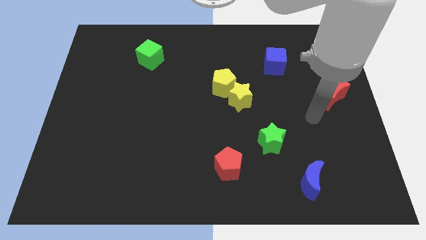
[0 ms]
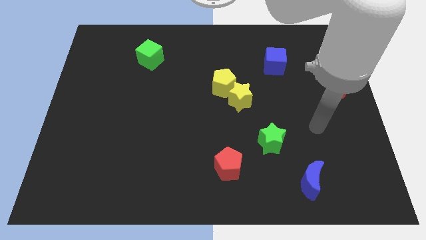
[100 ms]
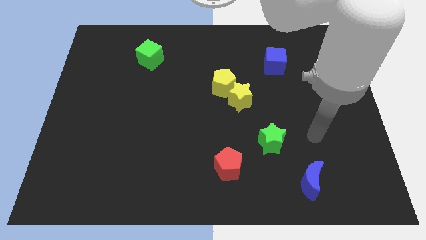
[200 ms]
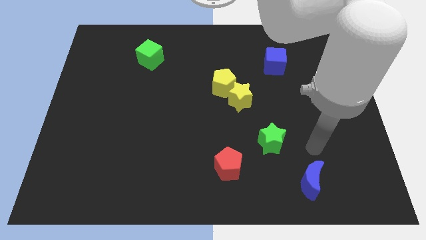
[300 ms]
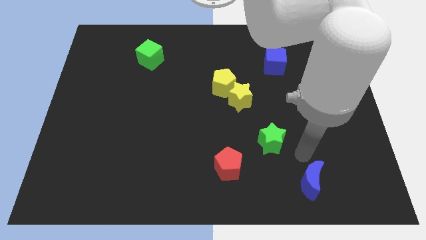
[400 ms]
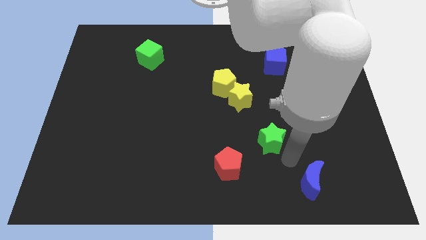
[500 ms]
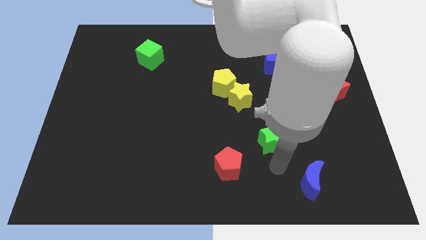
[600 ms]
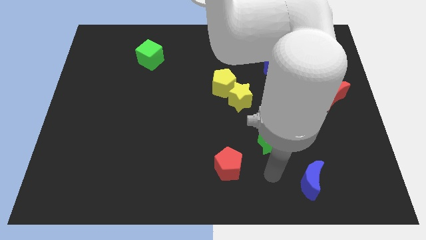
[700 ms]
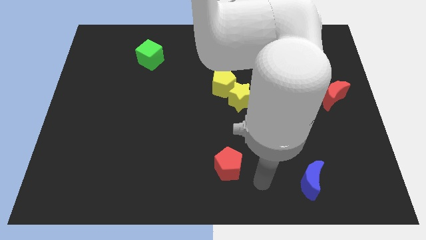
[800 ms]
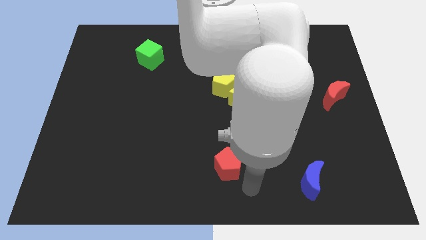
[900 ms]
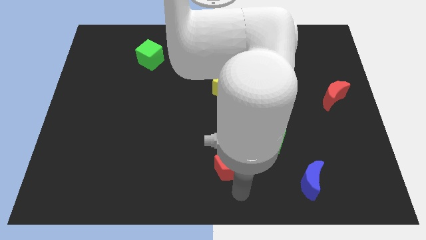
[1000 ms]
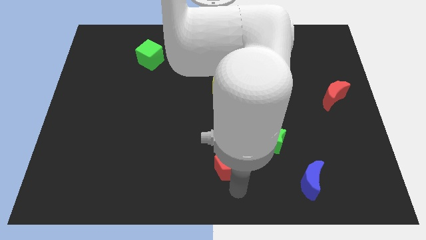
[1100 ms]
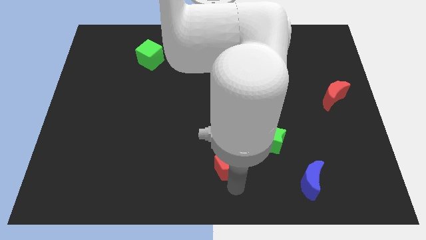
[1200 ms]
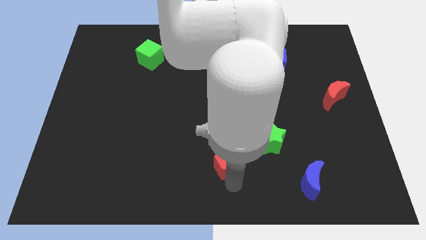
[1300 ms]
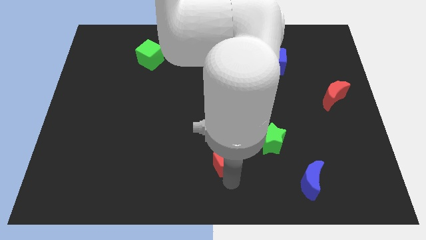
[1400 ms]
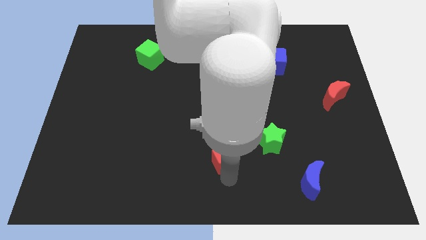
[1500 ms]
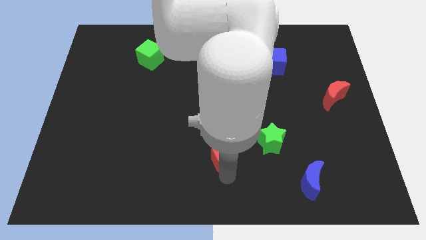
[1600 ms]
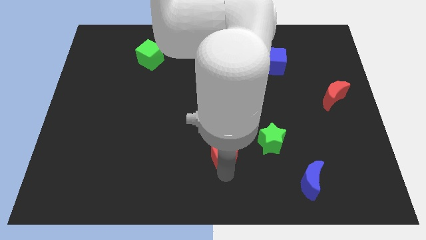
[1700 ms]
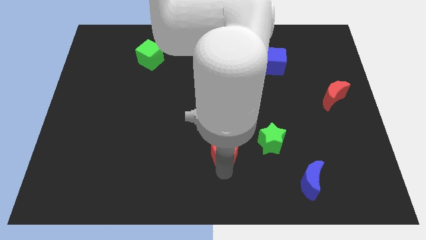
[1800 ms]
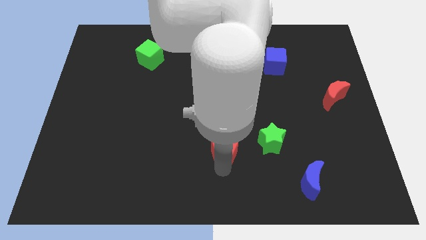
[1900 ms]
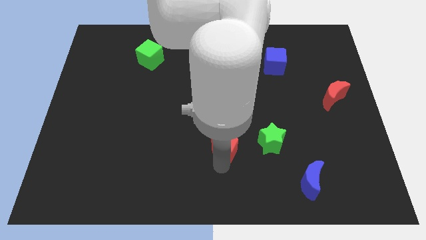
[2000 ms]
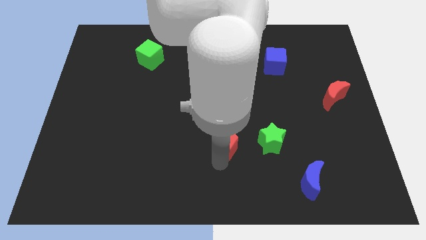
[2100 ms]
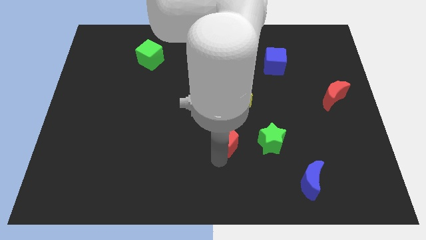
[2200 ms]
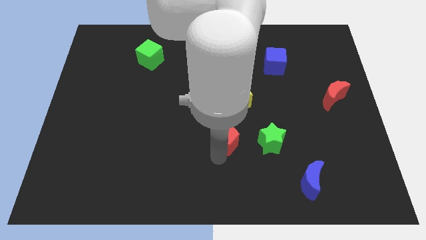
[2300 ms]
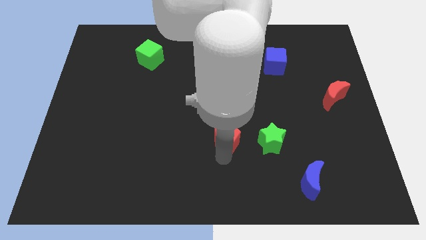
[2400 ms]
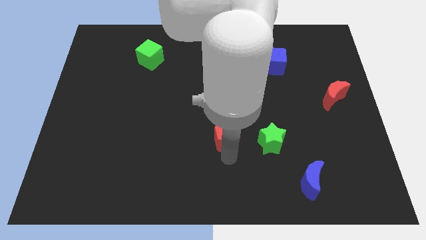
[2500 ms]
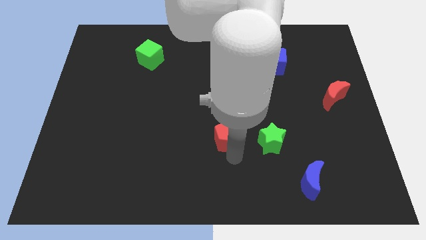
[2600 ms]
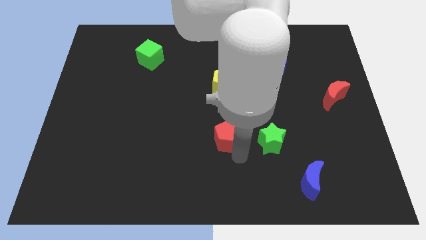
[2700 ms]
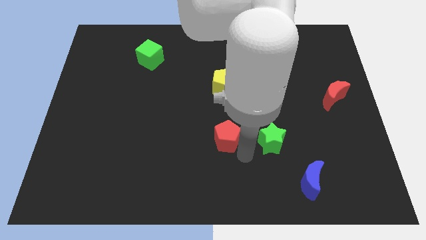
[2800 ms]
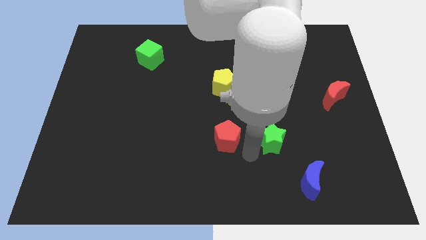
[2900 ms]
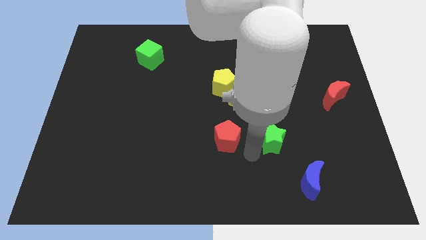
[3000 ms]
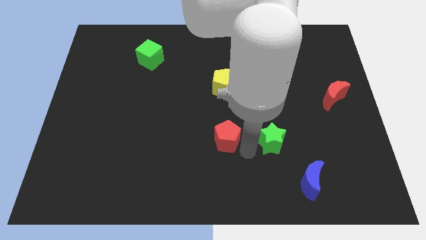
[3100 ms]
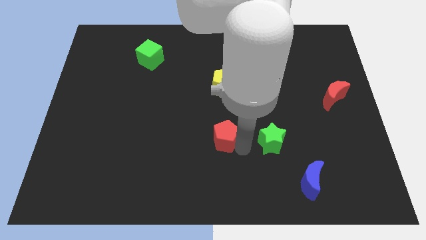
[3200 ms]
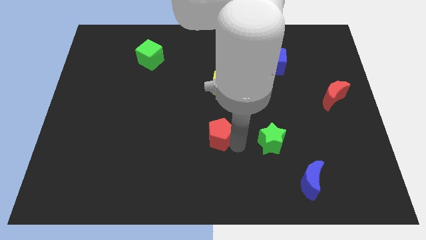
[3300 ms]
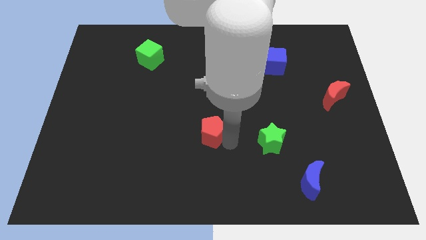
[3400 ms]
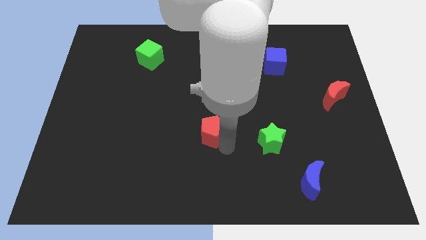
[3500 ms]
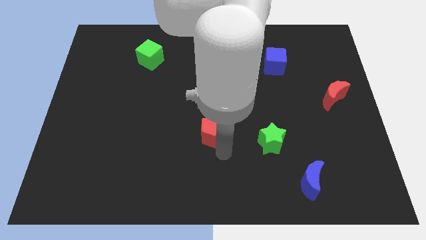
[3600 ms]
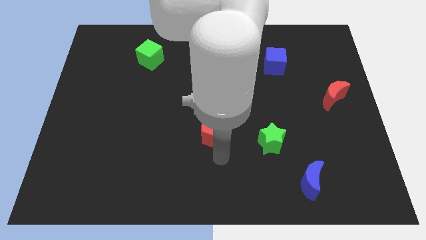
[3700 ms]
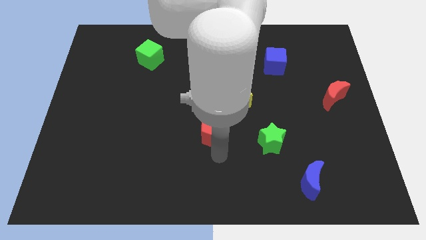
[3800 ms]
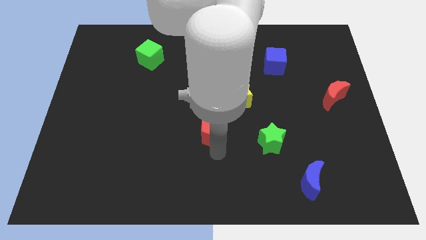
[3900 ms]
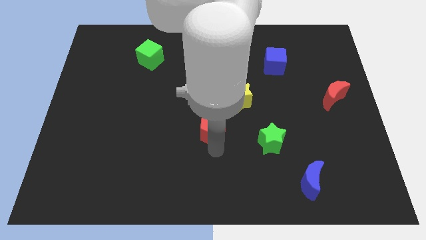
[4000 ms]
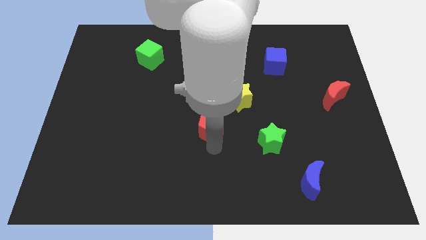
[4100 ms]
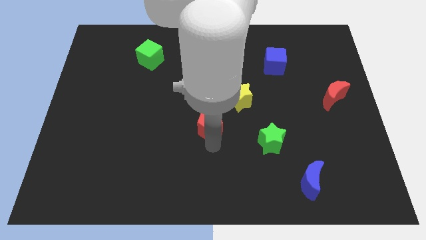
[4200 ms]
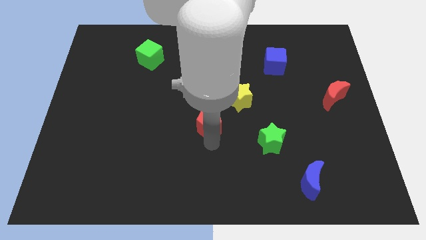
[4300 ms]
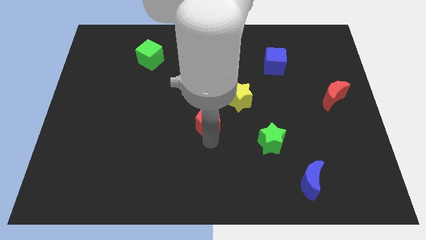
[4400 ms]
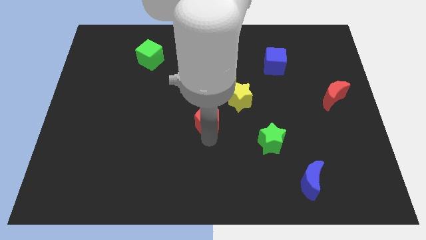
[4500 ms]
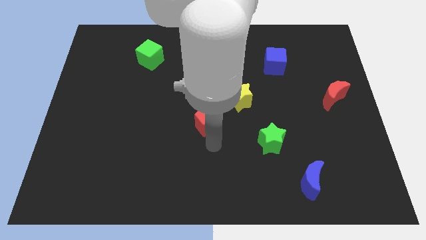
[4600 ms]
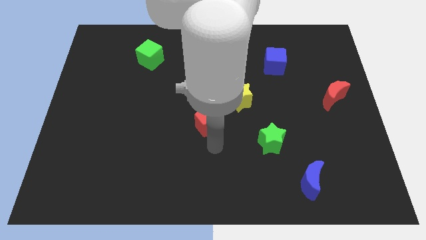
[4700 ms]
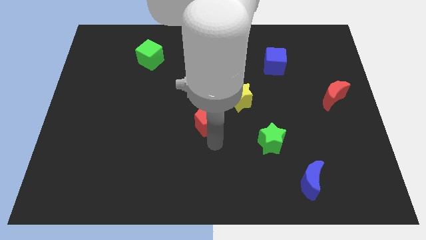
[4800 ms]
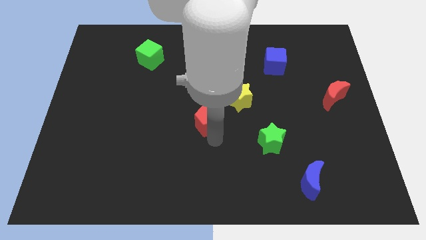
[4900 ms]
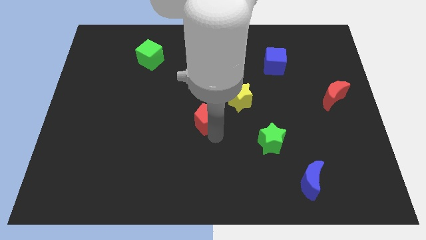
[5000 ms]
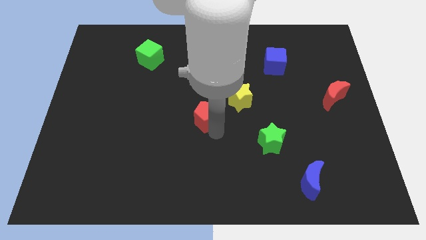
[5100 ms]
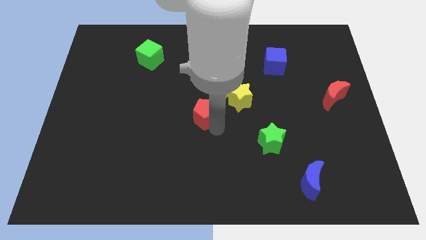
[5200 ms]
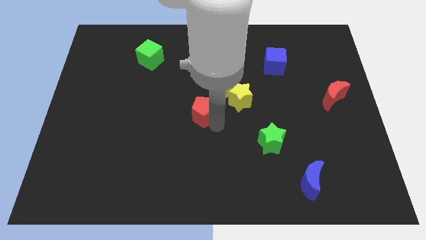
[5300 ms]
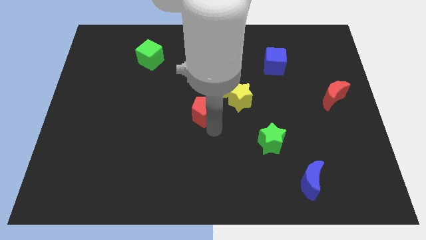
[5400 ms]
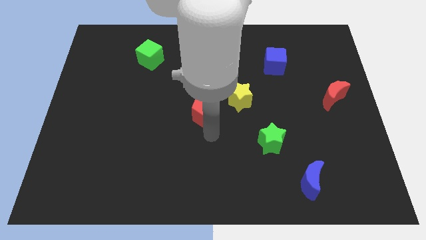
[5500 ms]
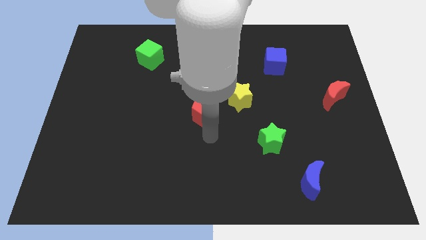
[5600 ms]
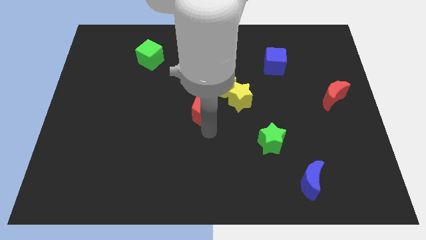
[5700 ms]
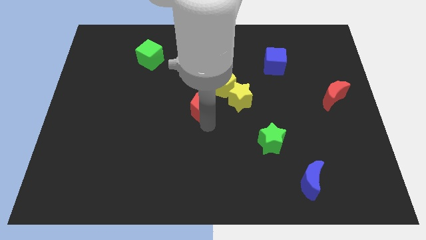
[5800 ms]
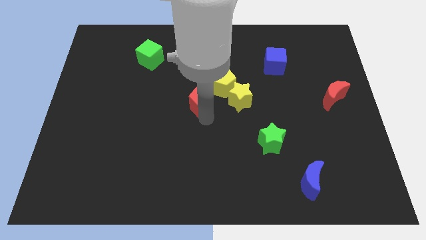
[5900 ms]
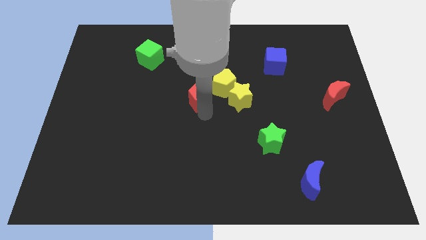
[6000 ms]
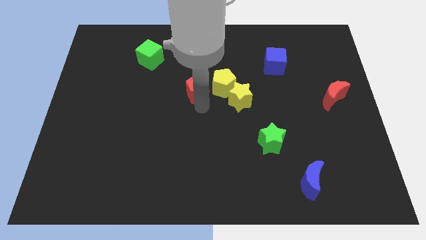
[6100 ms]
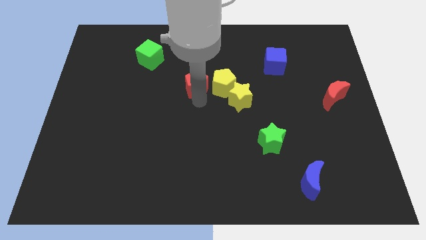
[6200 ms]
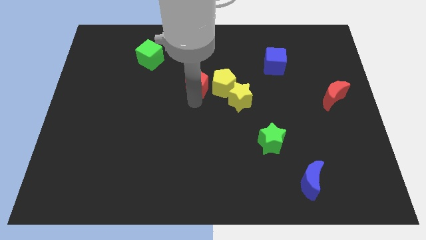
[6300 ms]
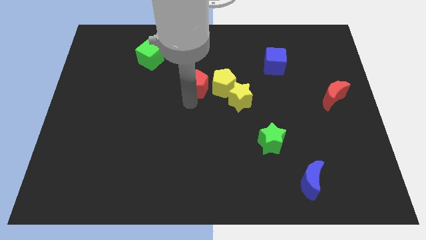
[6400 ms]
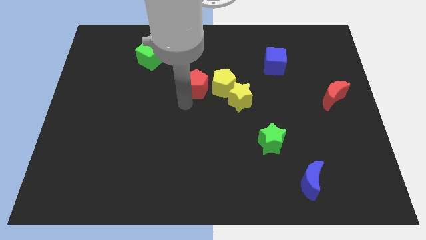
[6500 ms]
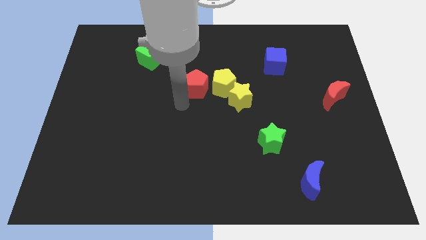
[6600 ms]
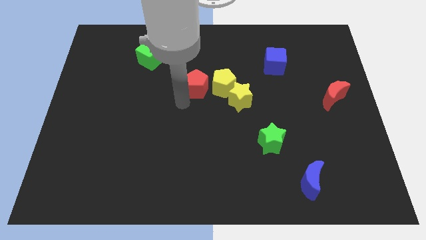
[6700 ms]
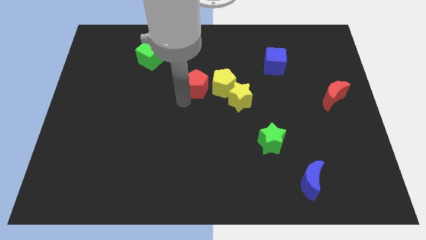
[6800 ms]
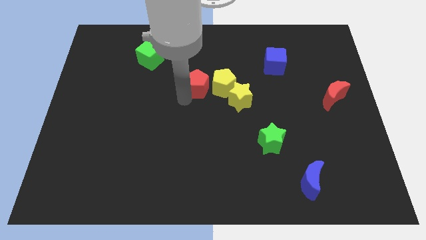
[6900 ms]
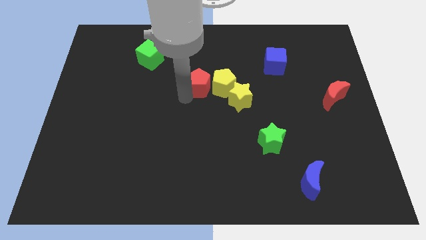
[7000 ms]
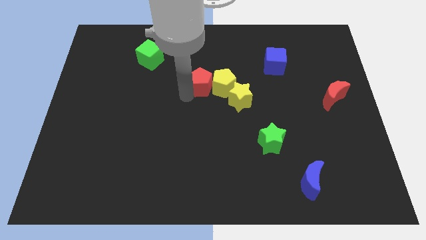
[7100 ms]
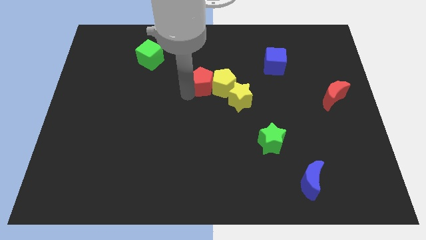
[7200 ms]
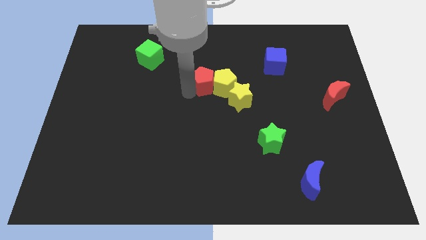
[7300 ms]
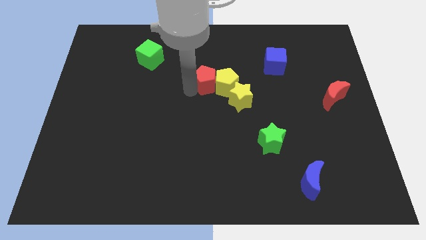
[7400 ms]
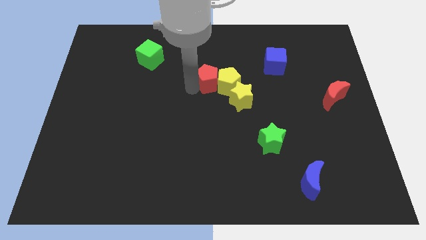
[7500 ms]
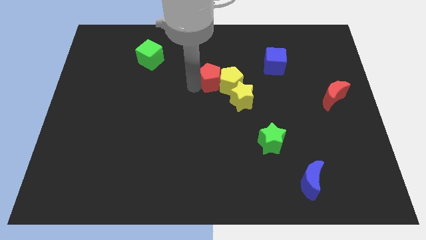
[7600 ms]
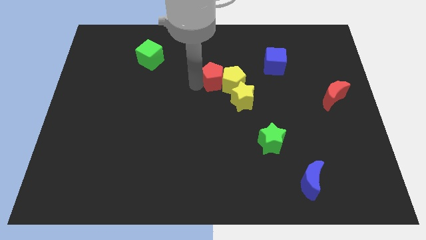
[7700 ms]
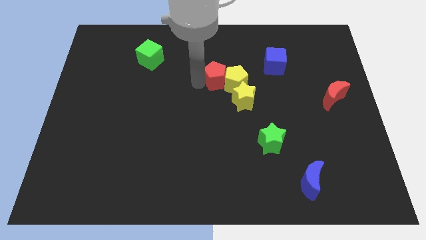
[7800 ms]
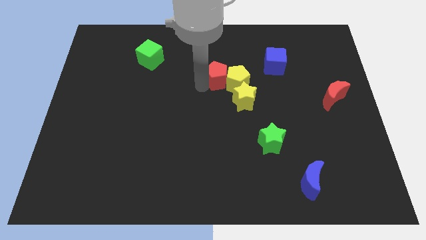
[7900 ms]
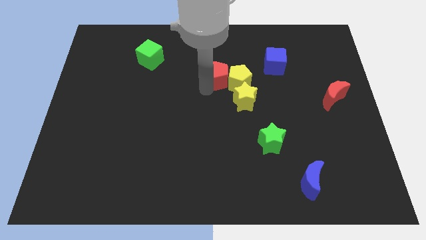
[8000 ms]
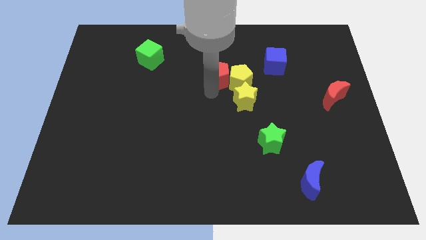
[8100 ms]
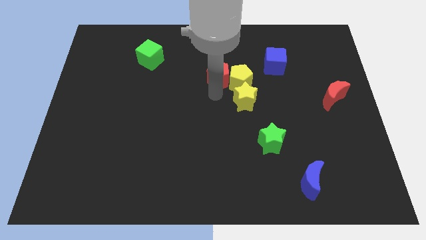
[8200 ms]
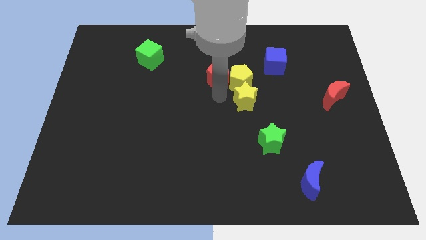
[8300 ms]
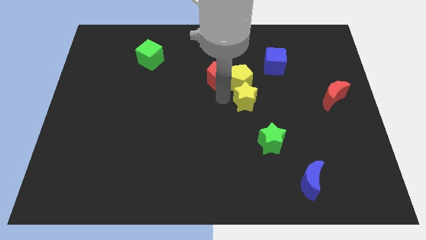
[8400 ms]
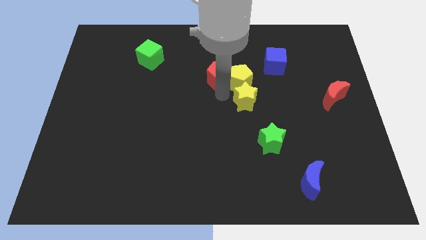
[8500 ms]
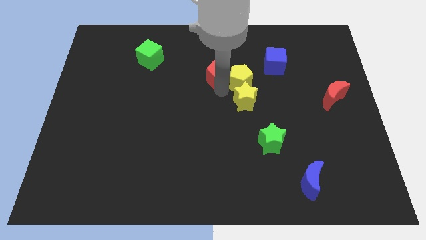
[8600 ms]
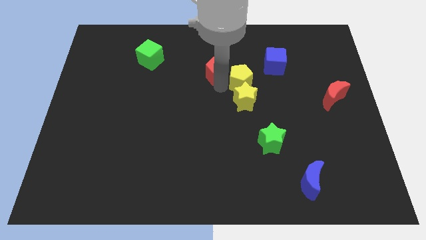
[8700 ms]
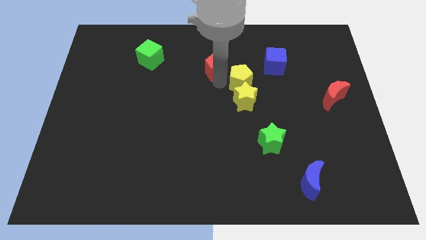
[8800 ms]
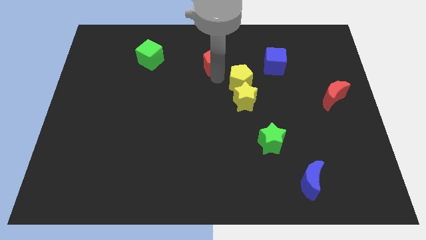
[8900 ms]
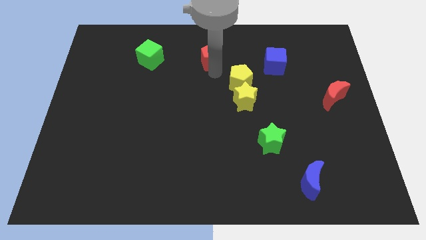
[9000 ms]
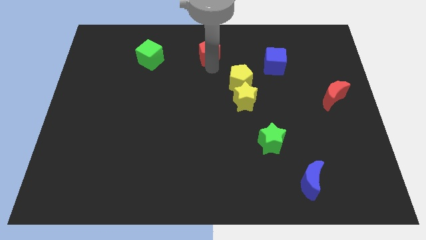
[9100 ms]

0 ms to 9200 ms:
put the red pentagon to the towards your base
